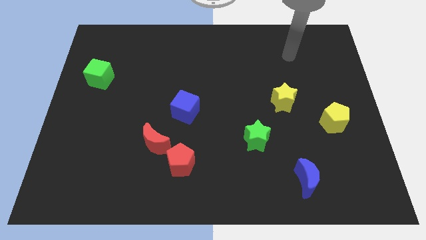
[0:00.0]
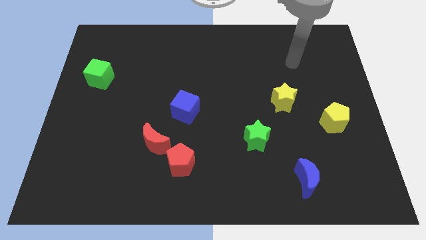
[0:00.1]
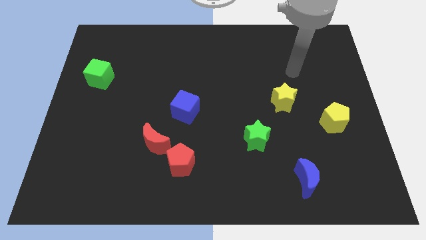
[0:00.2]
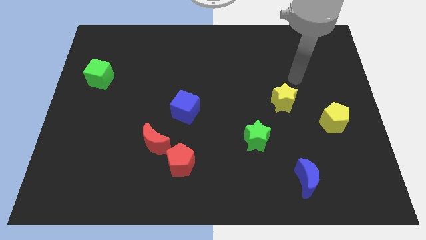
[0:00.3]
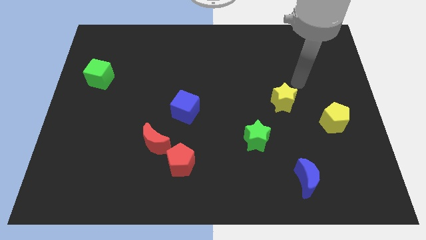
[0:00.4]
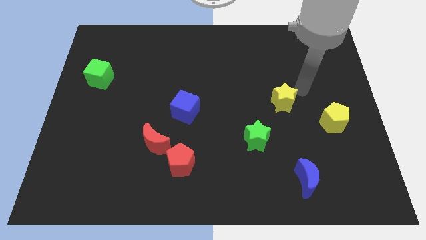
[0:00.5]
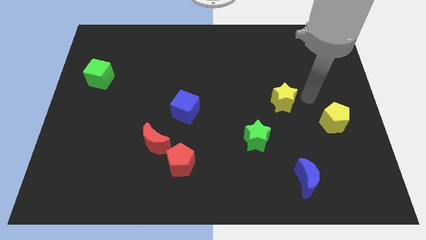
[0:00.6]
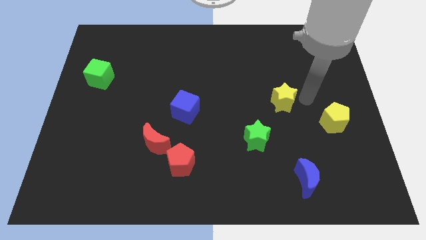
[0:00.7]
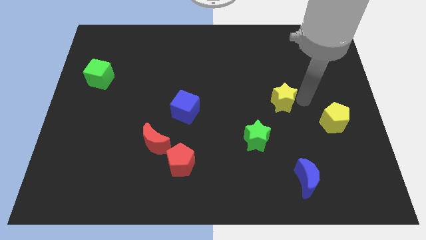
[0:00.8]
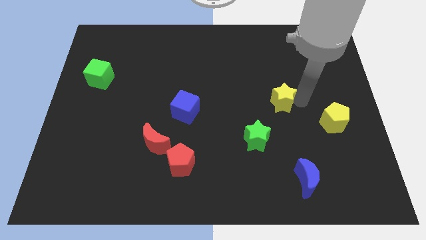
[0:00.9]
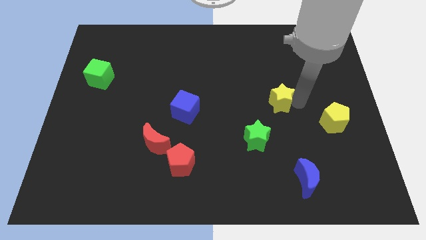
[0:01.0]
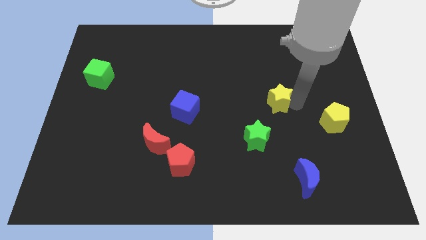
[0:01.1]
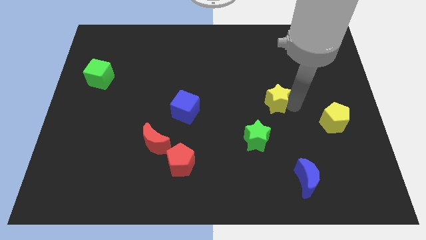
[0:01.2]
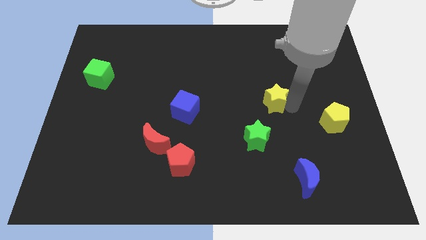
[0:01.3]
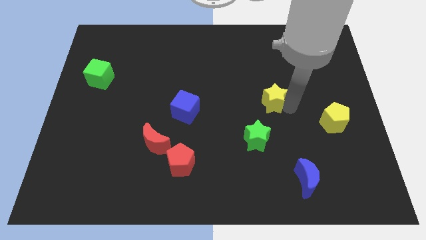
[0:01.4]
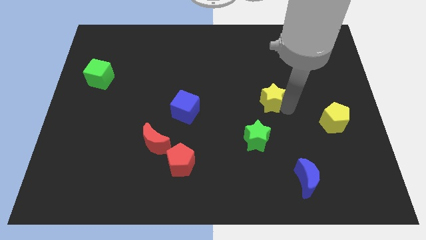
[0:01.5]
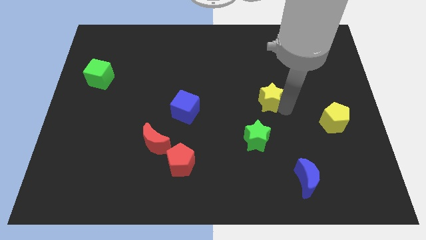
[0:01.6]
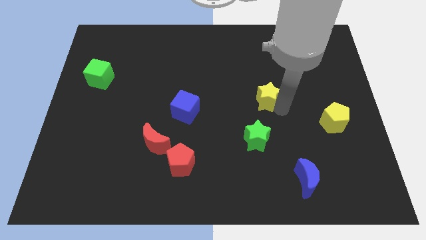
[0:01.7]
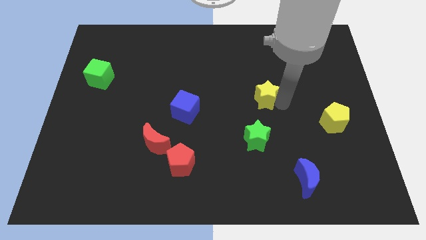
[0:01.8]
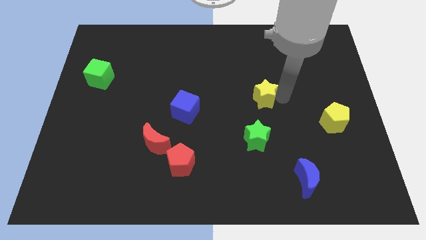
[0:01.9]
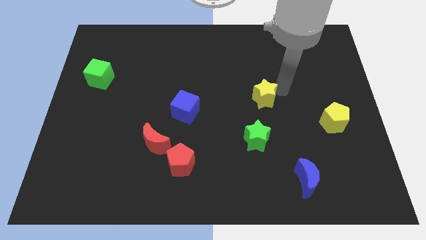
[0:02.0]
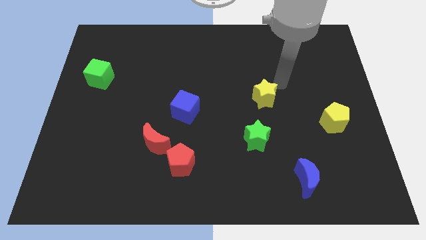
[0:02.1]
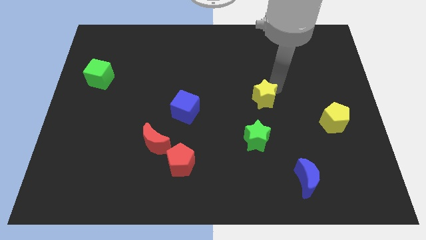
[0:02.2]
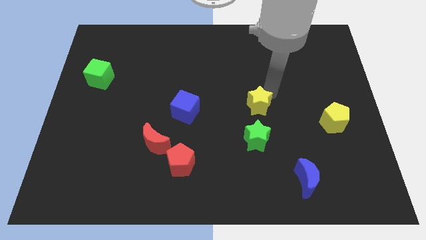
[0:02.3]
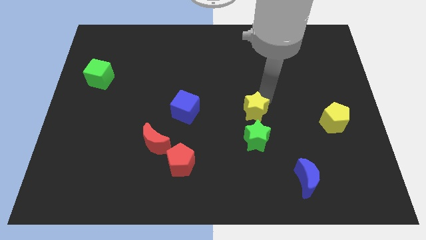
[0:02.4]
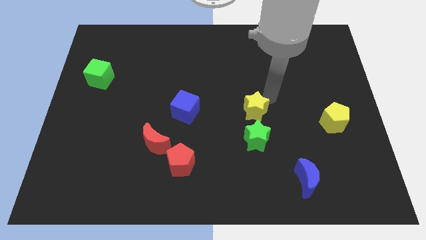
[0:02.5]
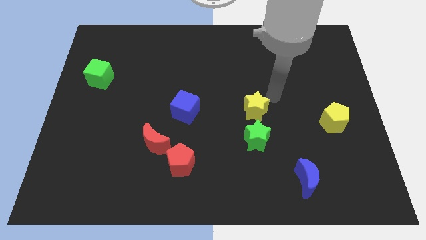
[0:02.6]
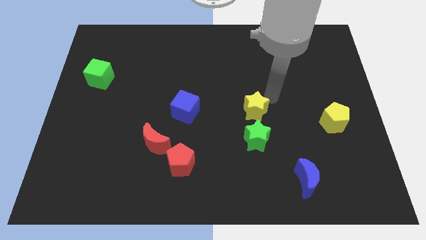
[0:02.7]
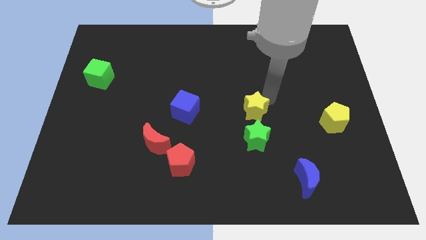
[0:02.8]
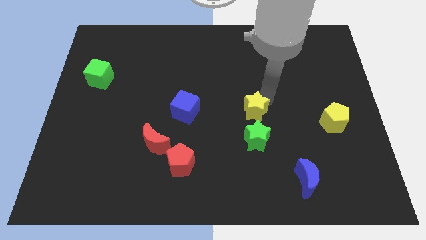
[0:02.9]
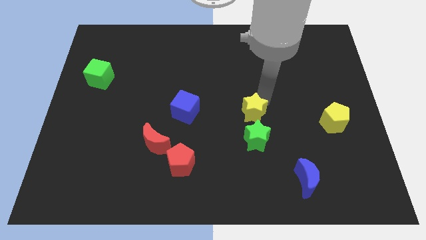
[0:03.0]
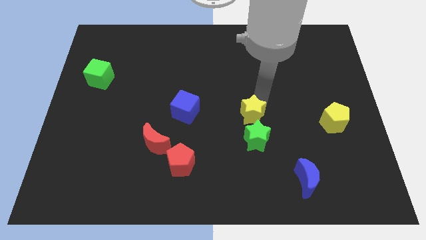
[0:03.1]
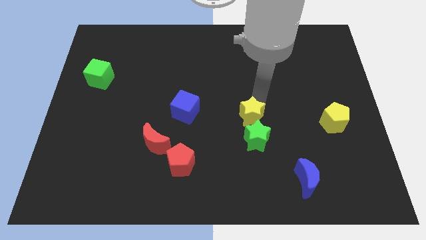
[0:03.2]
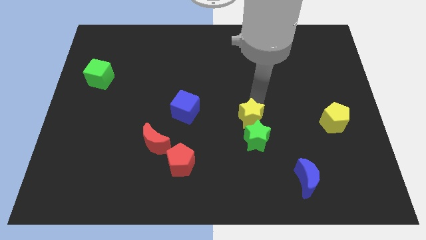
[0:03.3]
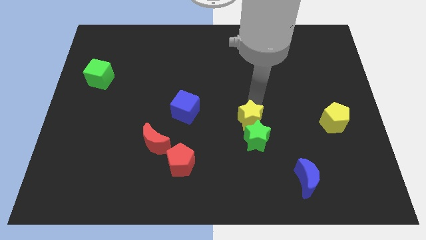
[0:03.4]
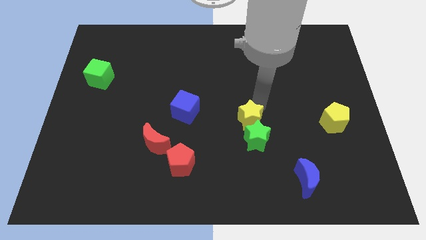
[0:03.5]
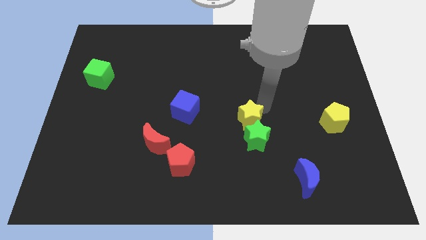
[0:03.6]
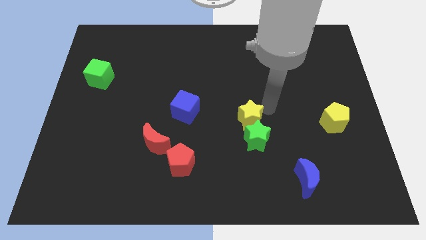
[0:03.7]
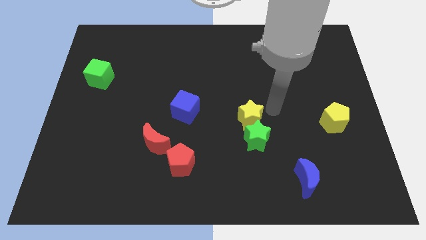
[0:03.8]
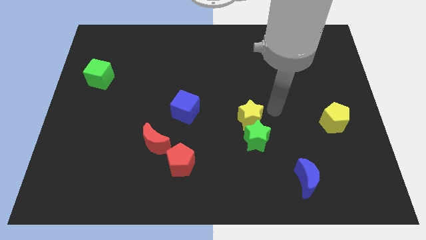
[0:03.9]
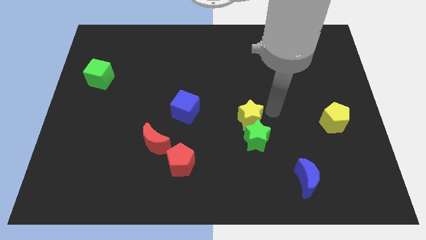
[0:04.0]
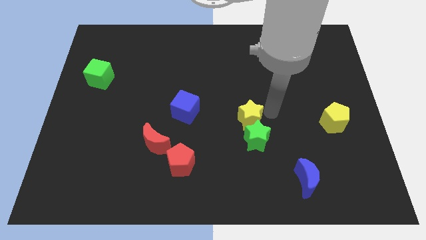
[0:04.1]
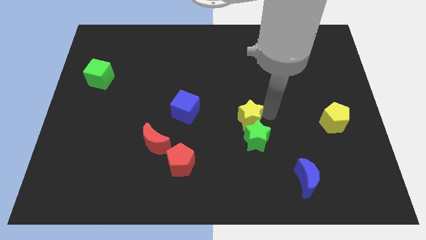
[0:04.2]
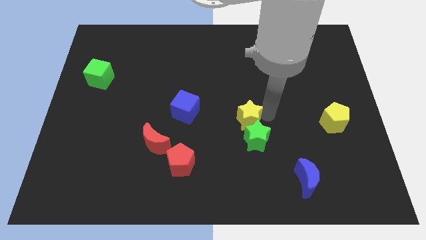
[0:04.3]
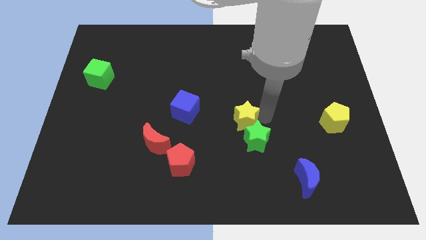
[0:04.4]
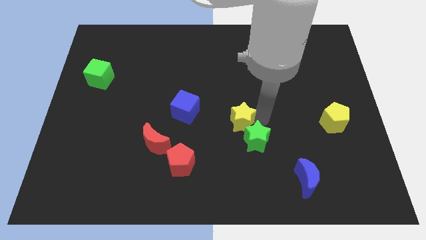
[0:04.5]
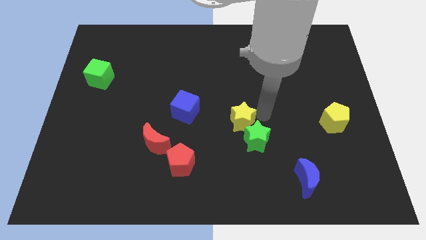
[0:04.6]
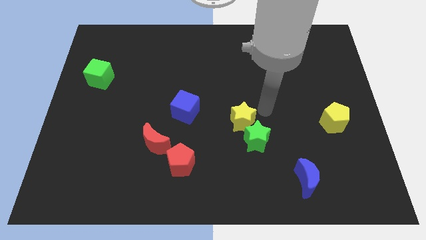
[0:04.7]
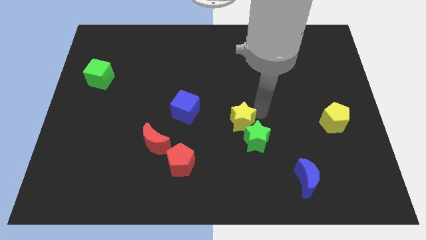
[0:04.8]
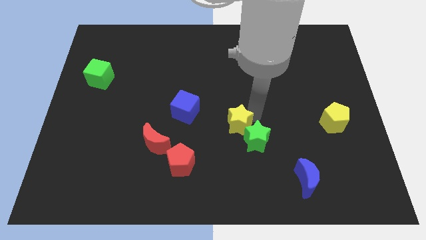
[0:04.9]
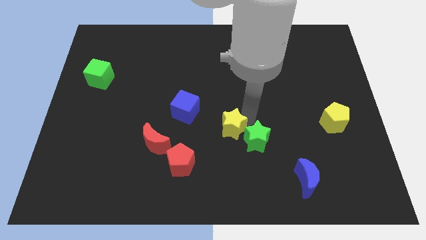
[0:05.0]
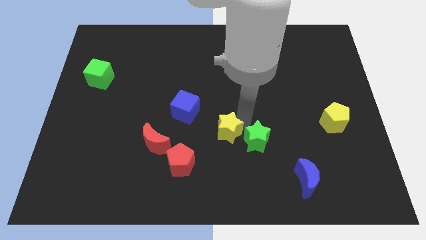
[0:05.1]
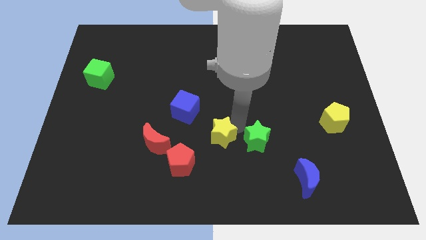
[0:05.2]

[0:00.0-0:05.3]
slide the yellow star just right of the red moon

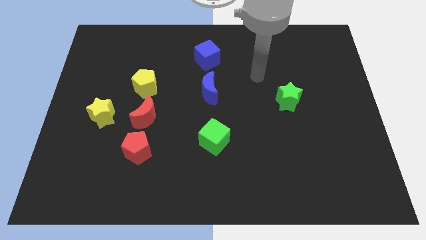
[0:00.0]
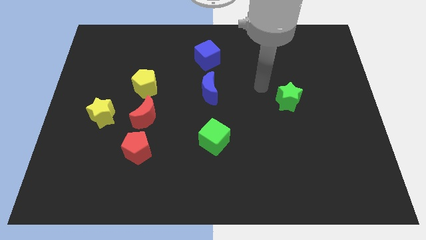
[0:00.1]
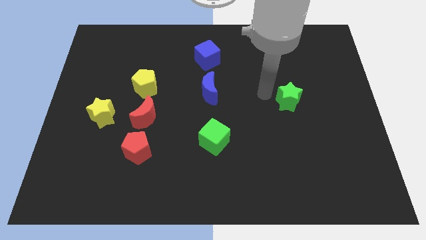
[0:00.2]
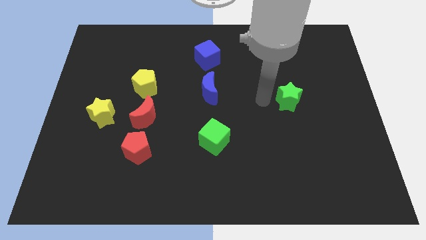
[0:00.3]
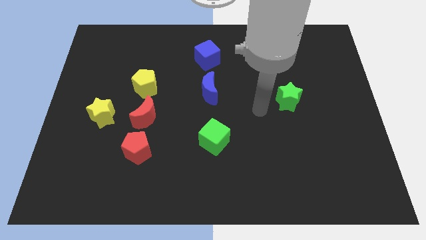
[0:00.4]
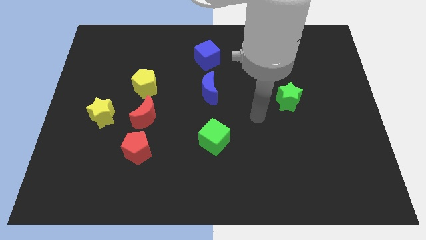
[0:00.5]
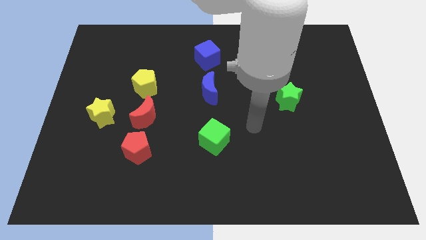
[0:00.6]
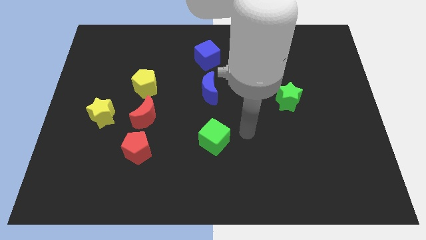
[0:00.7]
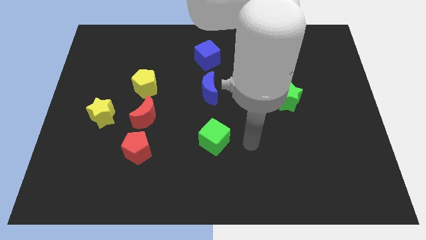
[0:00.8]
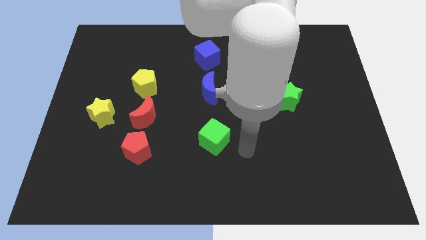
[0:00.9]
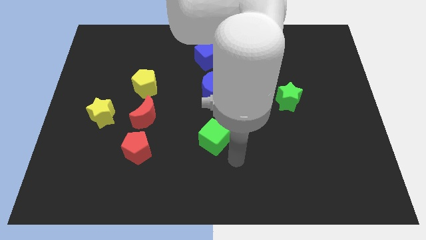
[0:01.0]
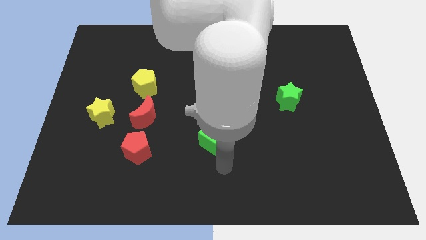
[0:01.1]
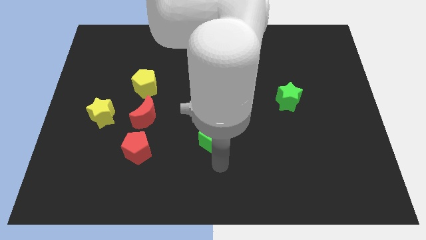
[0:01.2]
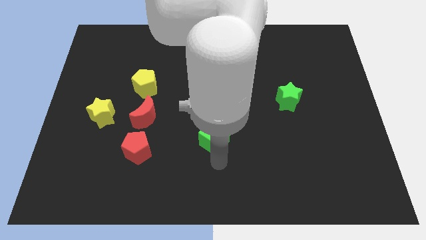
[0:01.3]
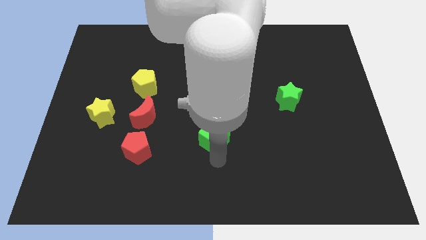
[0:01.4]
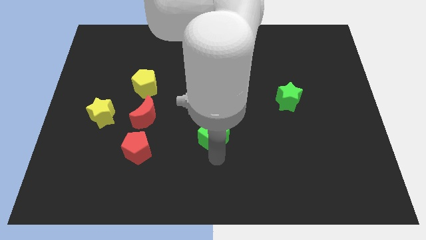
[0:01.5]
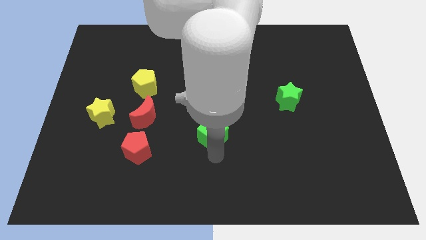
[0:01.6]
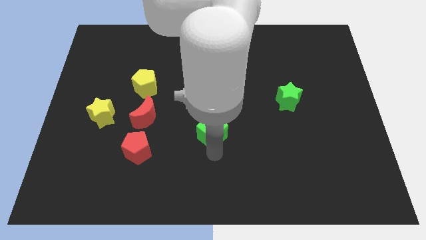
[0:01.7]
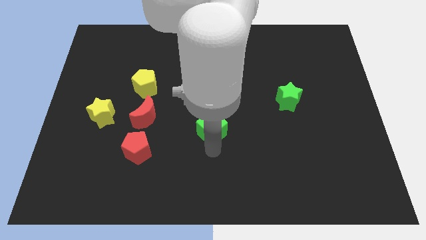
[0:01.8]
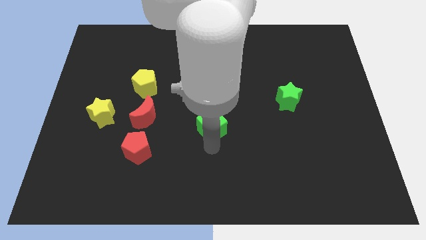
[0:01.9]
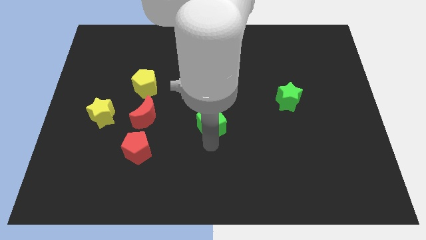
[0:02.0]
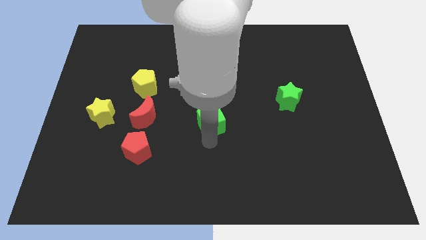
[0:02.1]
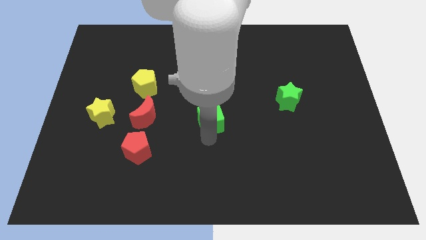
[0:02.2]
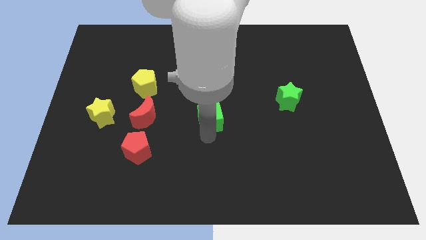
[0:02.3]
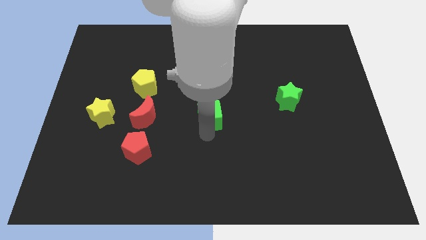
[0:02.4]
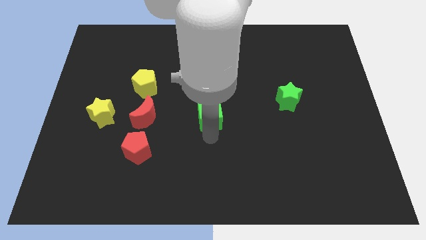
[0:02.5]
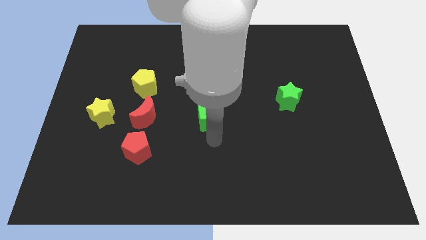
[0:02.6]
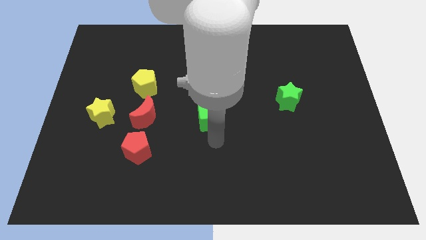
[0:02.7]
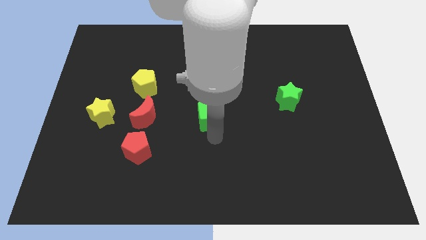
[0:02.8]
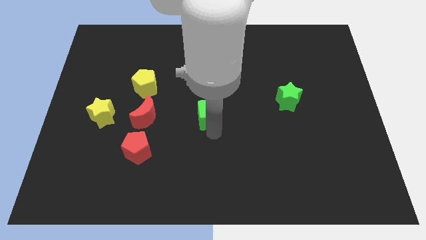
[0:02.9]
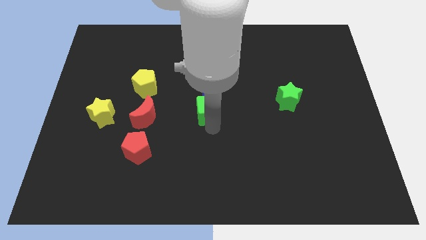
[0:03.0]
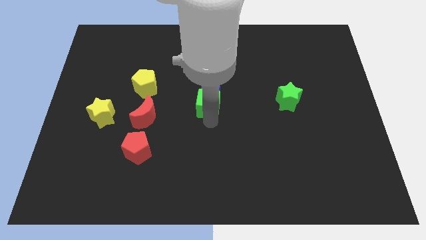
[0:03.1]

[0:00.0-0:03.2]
push the green cube to the bottom of the blue cube
